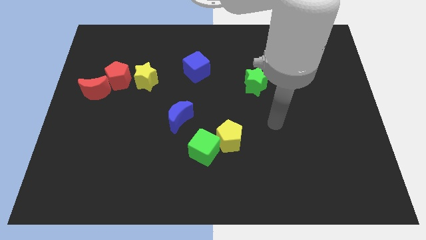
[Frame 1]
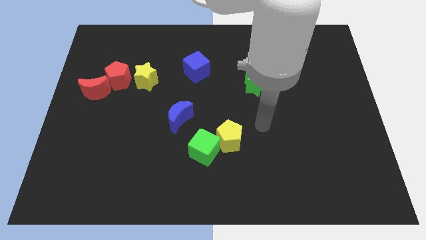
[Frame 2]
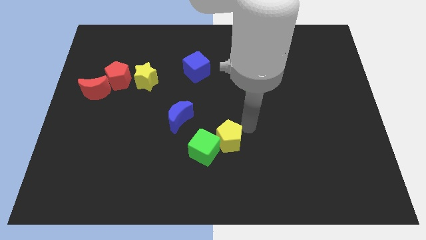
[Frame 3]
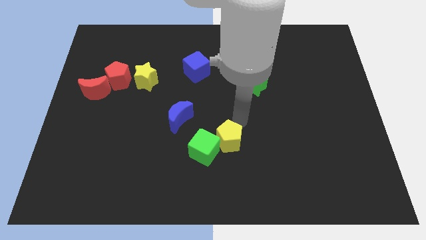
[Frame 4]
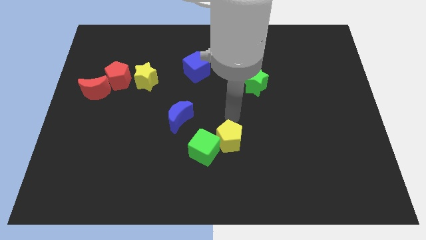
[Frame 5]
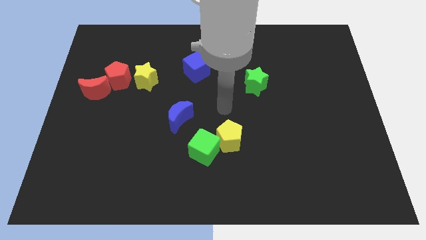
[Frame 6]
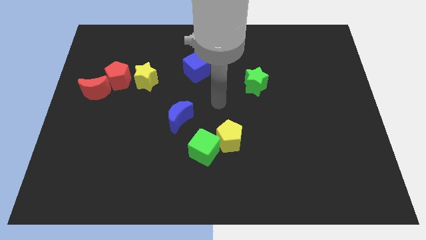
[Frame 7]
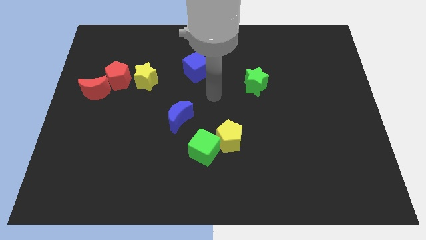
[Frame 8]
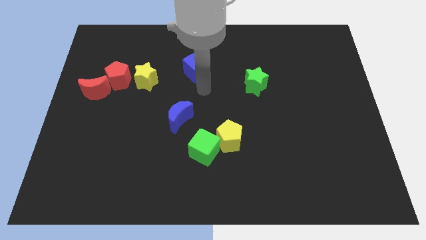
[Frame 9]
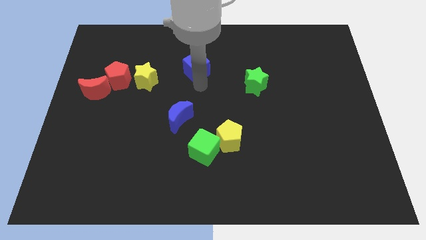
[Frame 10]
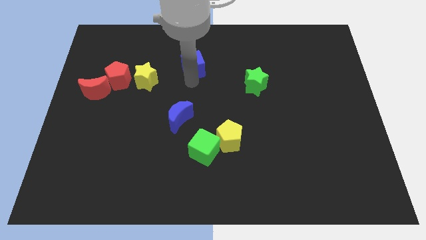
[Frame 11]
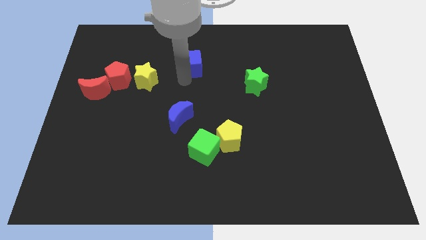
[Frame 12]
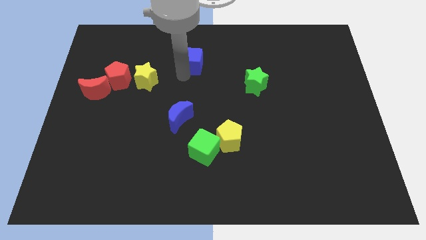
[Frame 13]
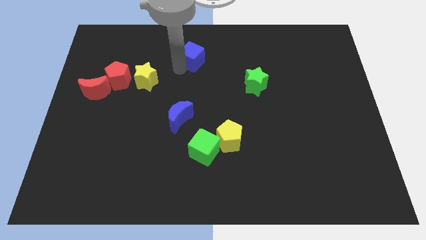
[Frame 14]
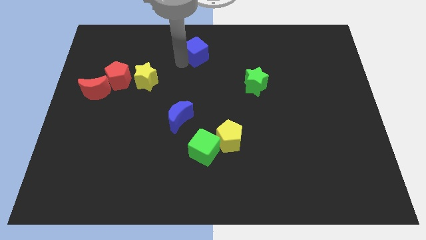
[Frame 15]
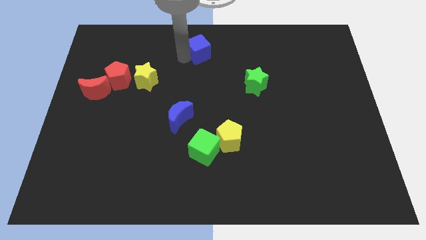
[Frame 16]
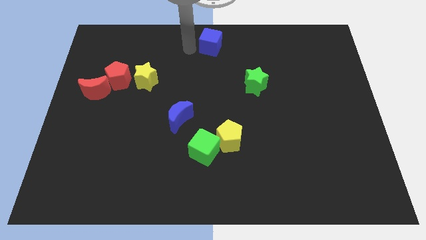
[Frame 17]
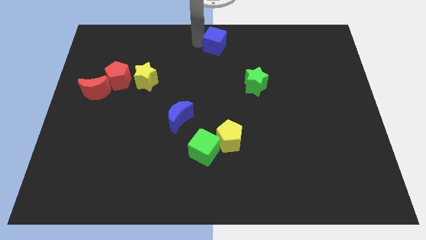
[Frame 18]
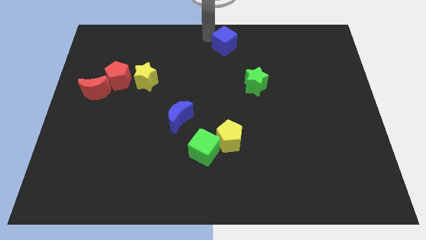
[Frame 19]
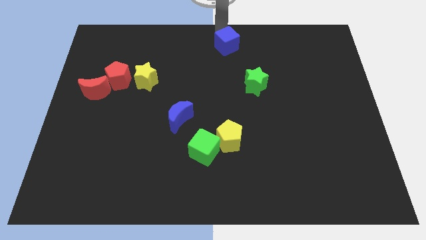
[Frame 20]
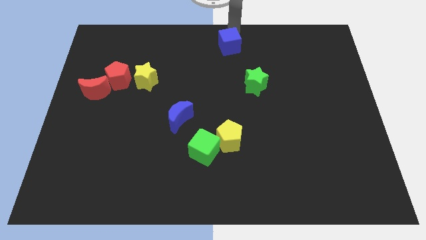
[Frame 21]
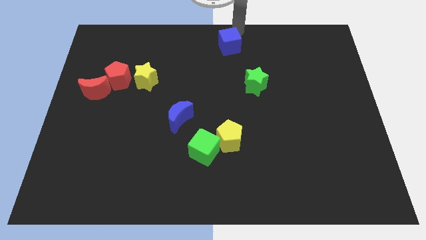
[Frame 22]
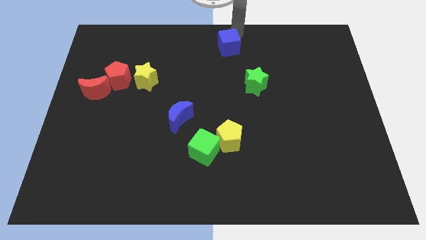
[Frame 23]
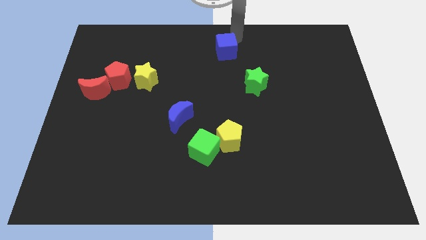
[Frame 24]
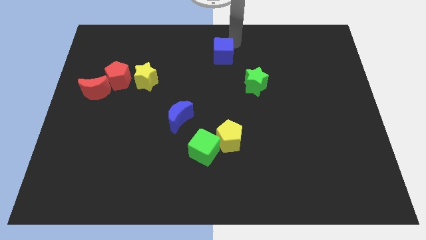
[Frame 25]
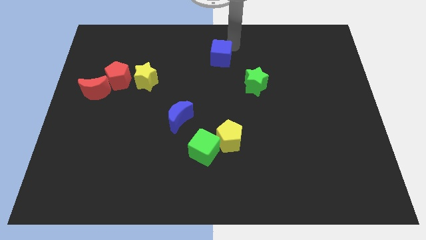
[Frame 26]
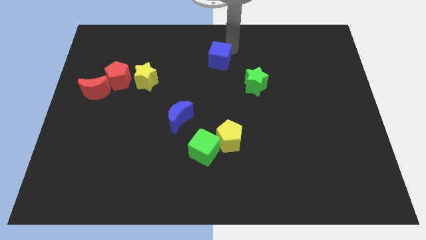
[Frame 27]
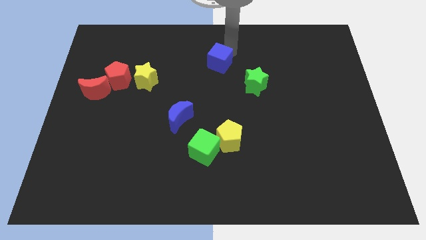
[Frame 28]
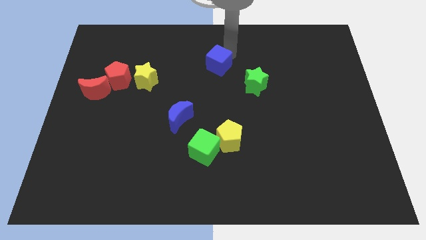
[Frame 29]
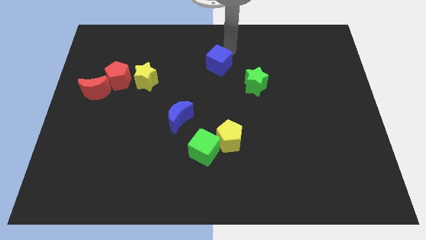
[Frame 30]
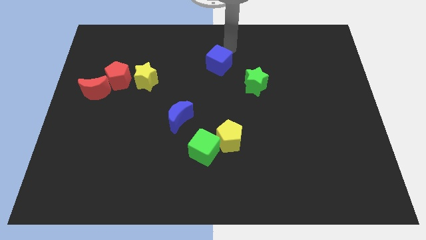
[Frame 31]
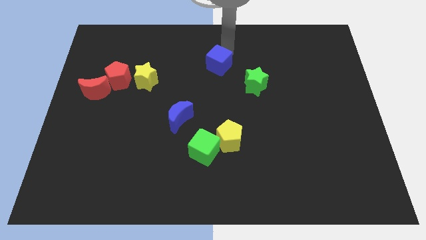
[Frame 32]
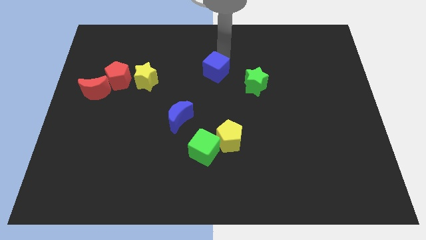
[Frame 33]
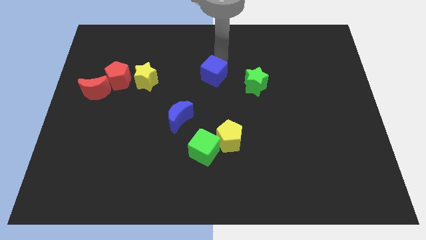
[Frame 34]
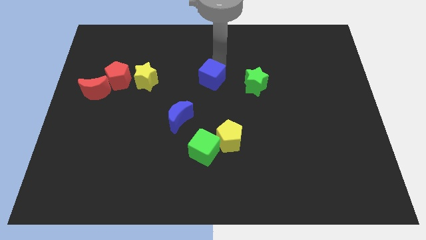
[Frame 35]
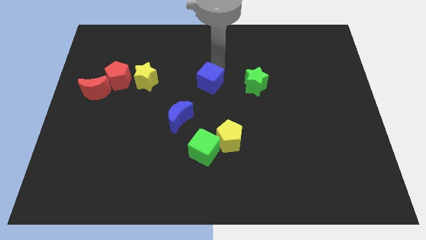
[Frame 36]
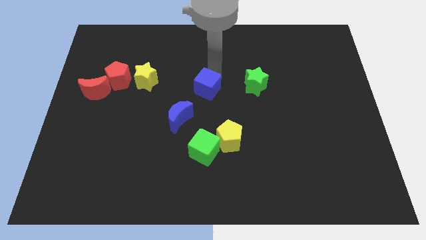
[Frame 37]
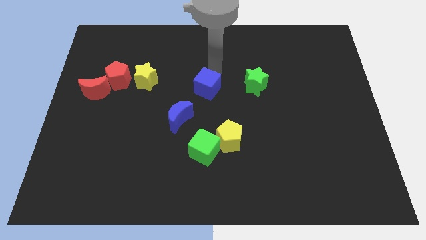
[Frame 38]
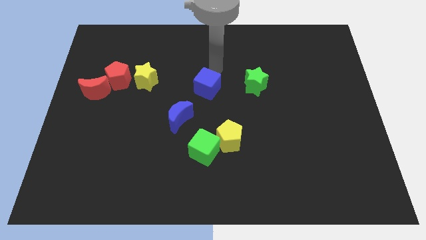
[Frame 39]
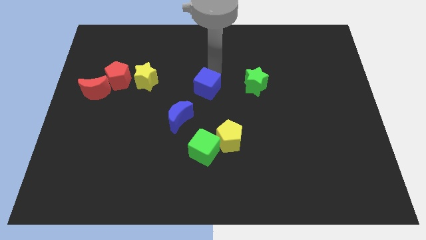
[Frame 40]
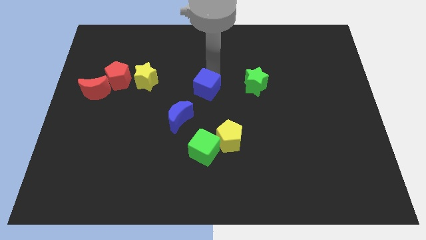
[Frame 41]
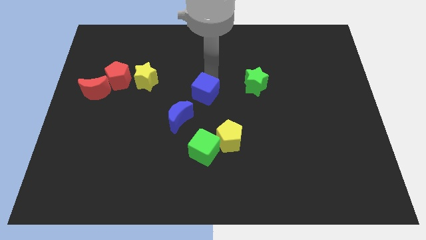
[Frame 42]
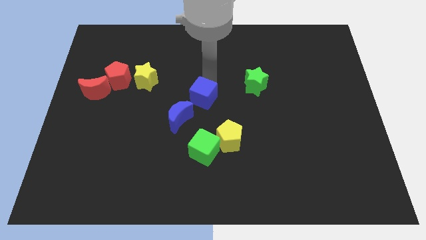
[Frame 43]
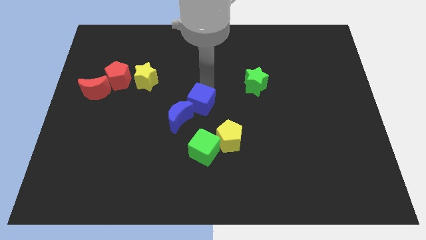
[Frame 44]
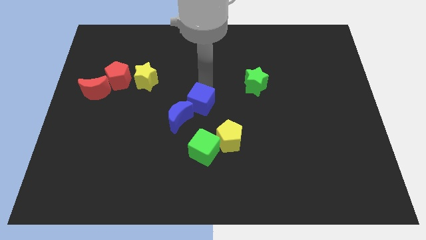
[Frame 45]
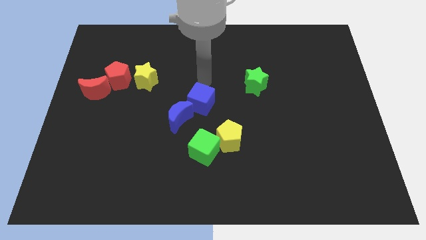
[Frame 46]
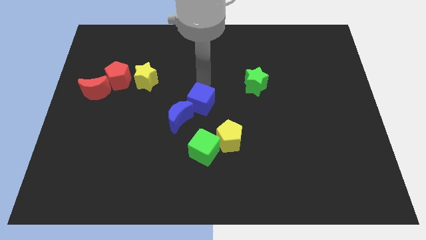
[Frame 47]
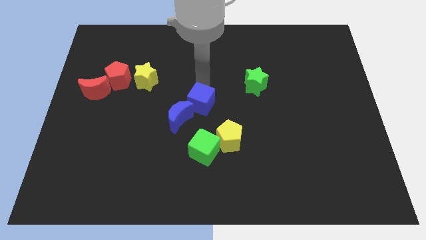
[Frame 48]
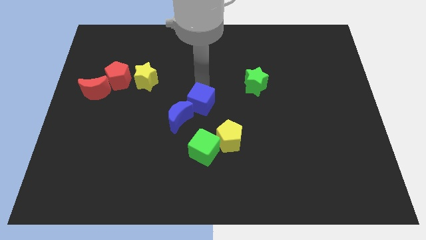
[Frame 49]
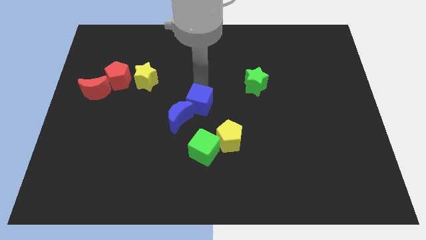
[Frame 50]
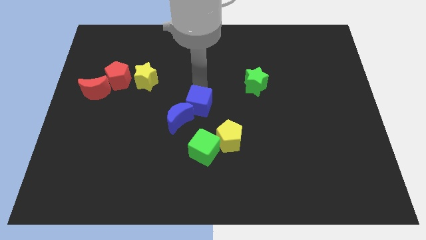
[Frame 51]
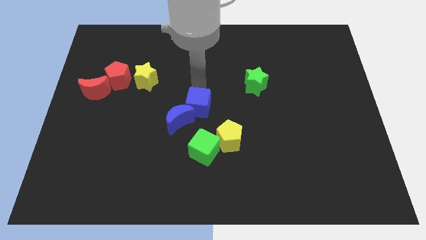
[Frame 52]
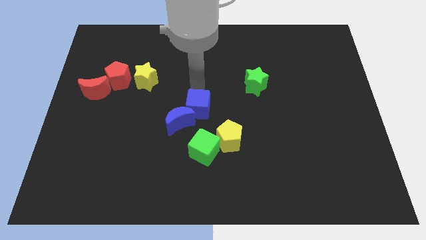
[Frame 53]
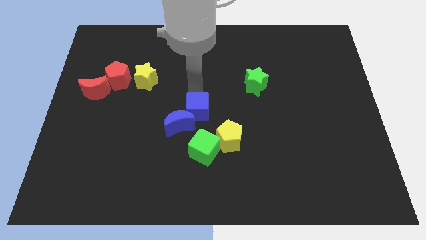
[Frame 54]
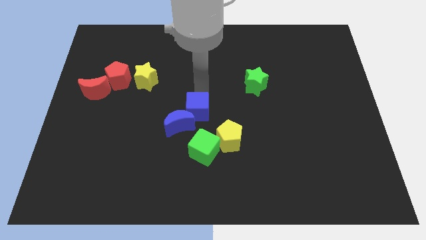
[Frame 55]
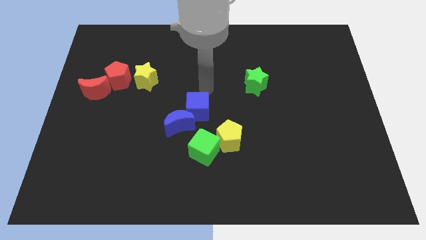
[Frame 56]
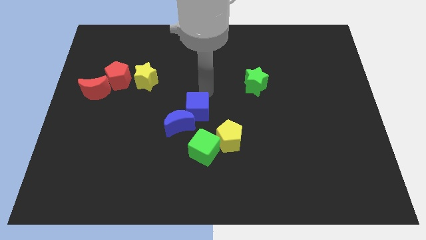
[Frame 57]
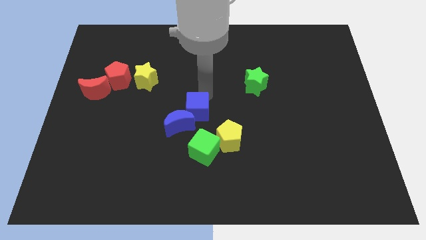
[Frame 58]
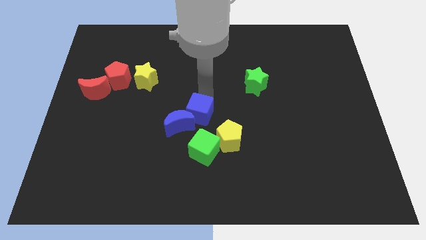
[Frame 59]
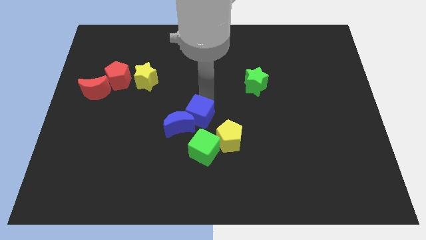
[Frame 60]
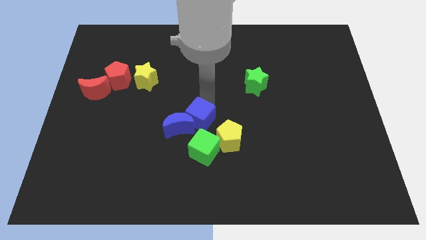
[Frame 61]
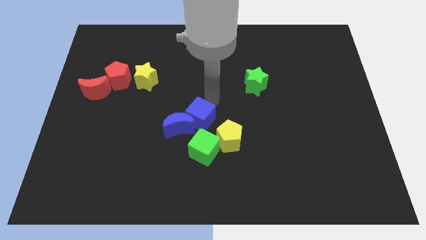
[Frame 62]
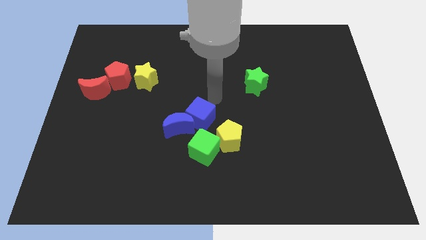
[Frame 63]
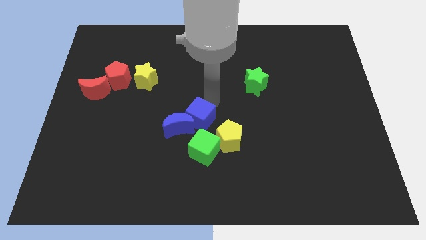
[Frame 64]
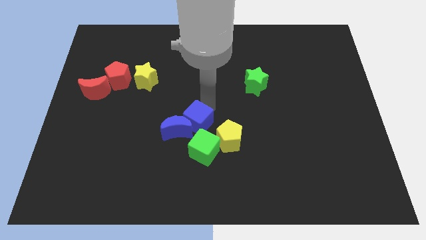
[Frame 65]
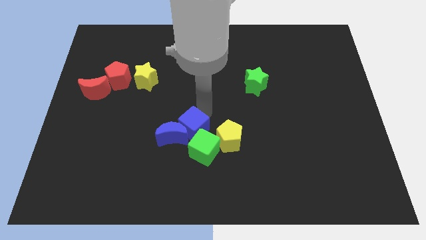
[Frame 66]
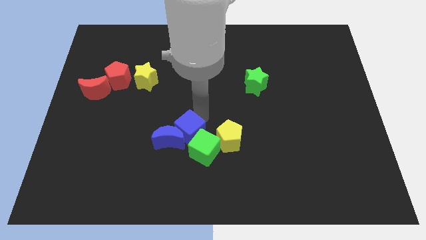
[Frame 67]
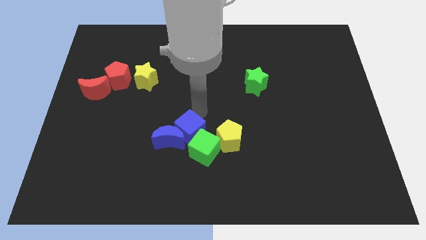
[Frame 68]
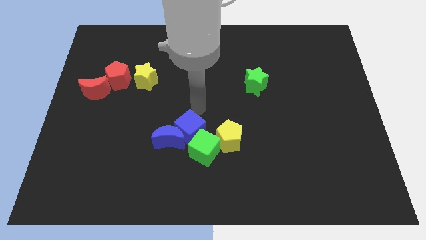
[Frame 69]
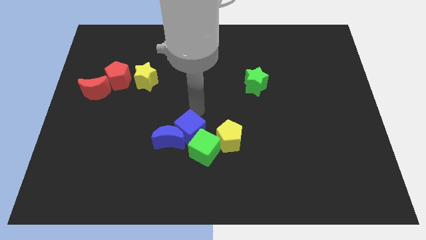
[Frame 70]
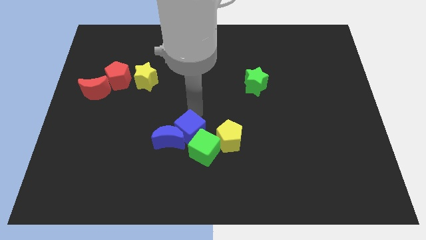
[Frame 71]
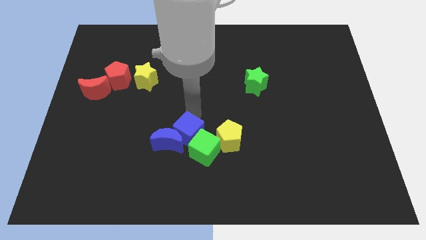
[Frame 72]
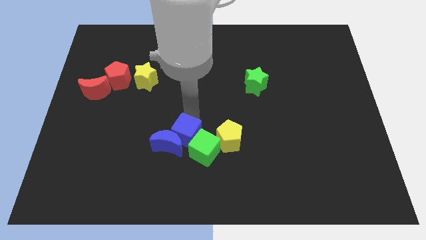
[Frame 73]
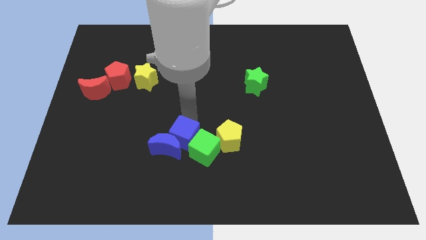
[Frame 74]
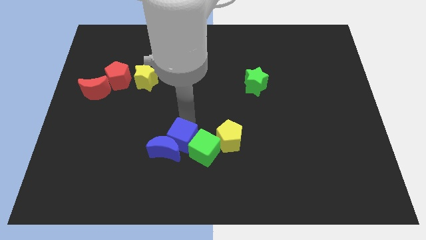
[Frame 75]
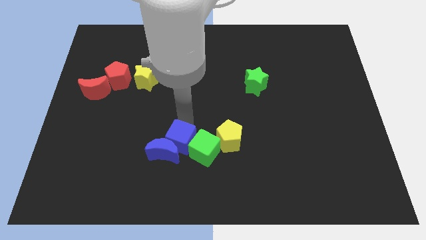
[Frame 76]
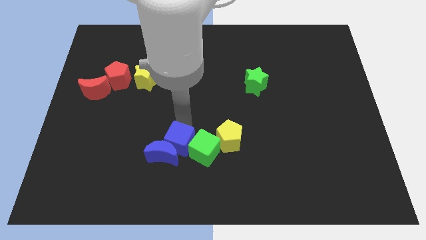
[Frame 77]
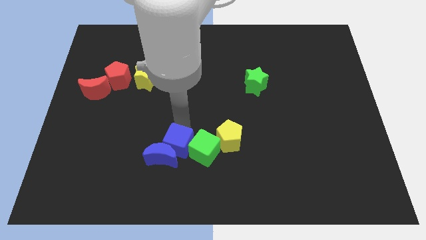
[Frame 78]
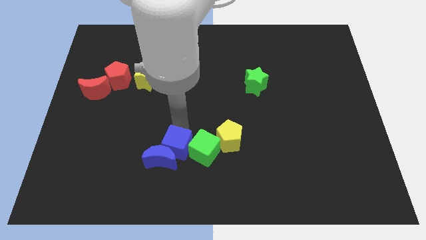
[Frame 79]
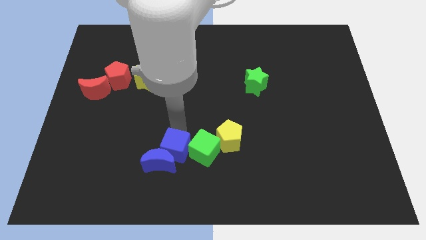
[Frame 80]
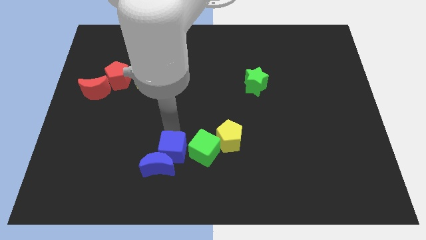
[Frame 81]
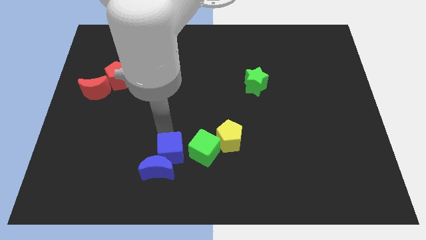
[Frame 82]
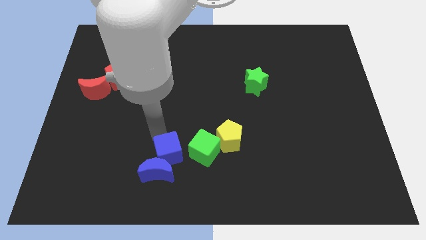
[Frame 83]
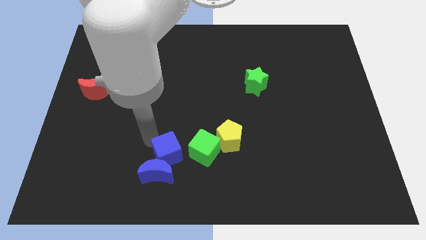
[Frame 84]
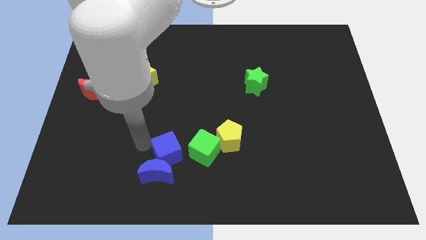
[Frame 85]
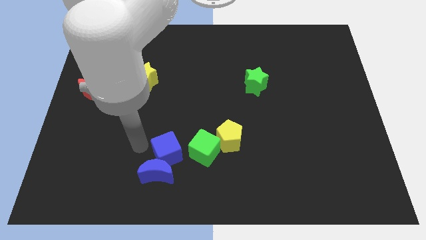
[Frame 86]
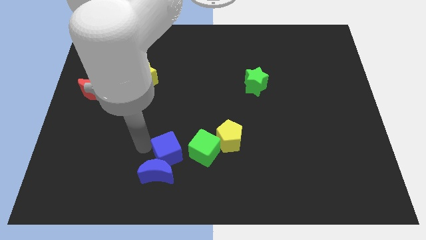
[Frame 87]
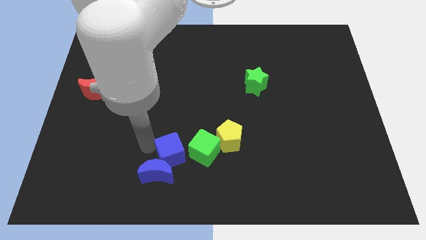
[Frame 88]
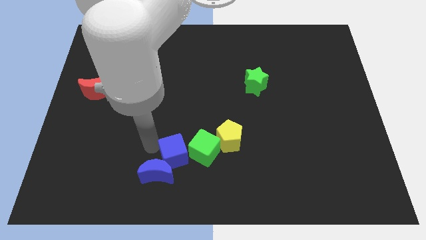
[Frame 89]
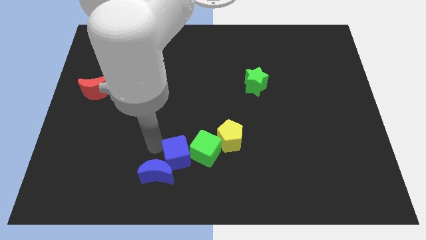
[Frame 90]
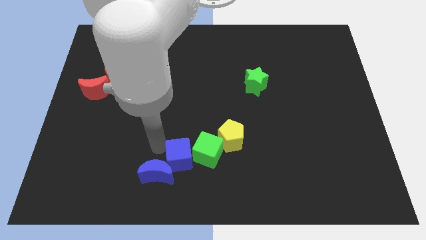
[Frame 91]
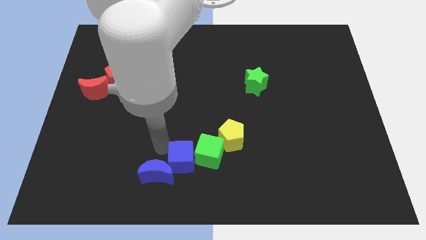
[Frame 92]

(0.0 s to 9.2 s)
push the blue cube to the bottom left of the yellow pentagon
